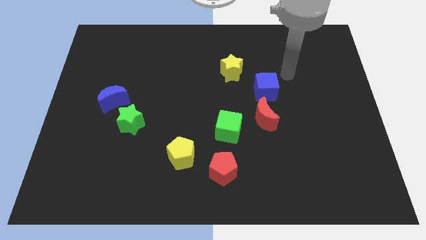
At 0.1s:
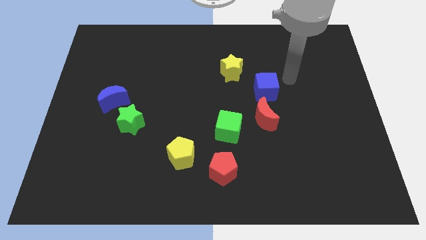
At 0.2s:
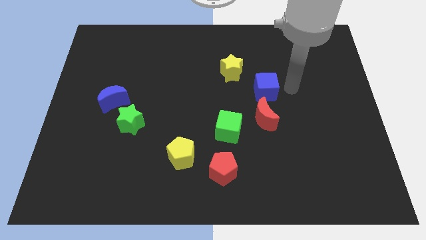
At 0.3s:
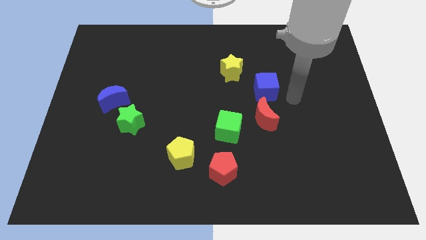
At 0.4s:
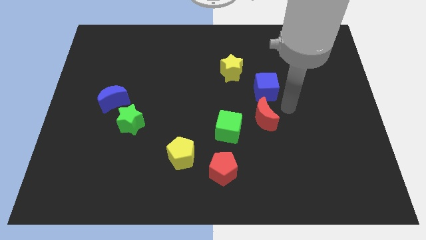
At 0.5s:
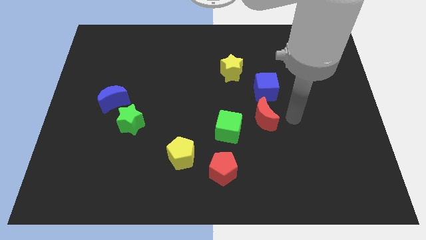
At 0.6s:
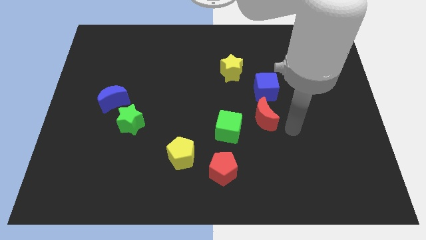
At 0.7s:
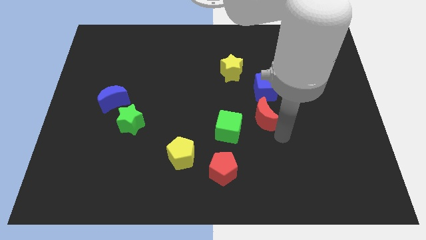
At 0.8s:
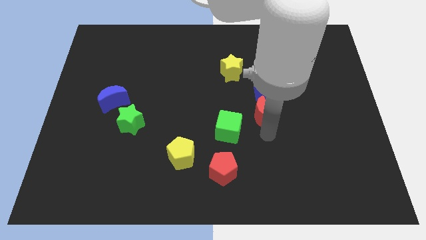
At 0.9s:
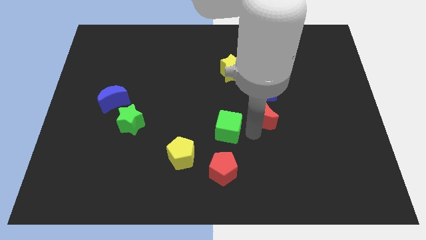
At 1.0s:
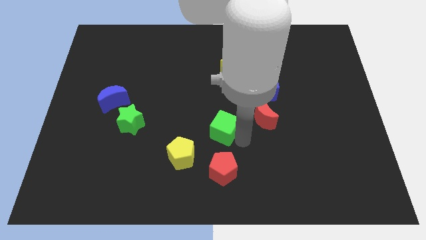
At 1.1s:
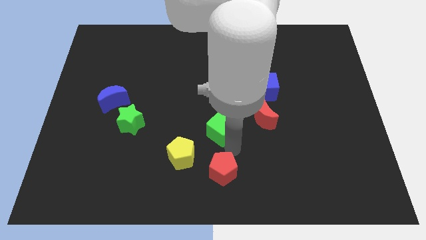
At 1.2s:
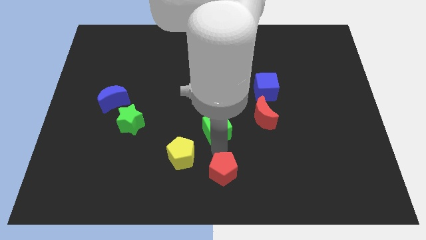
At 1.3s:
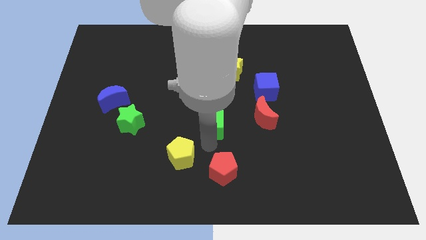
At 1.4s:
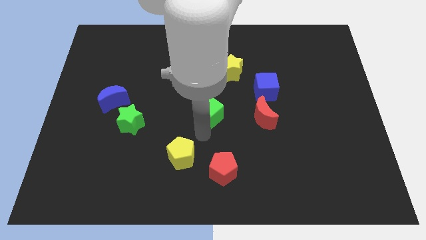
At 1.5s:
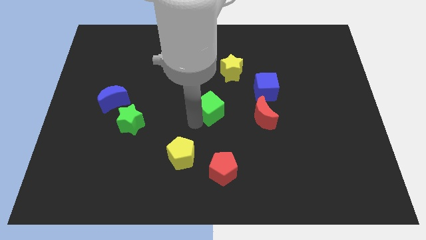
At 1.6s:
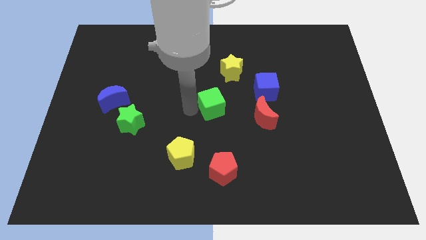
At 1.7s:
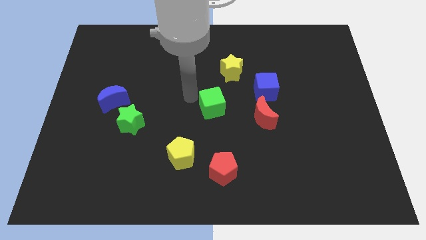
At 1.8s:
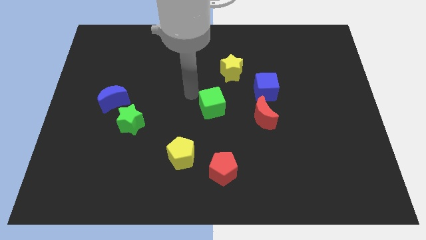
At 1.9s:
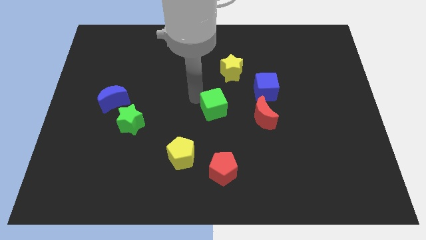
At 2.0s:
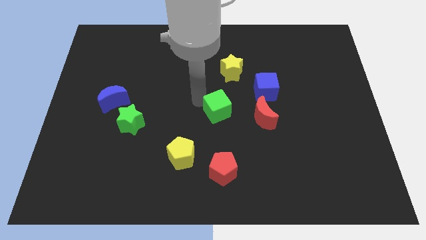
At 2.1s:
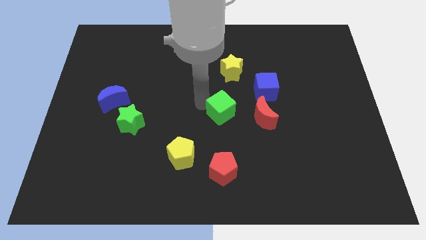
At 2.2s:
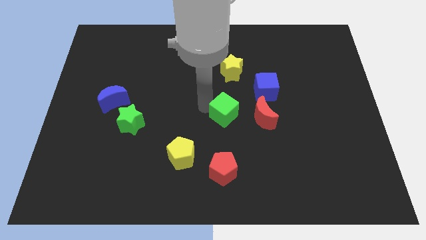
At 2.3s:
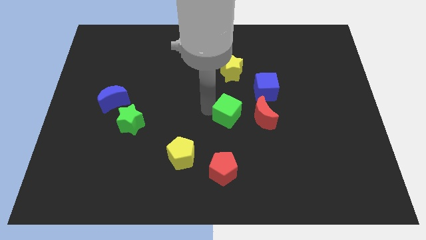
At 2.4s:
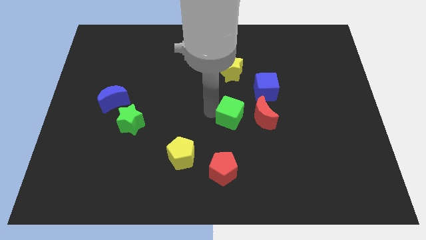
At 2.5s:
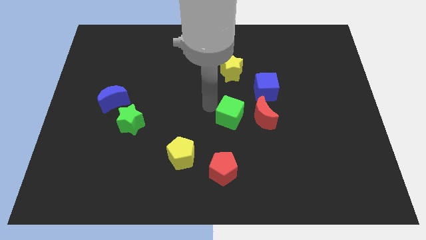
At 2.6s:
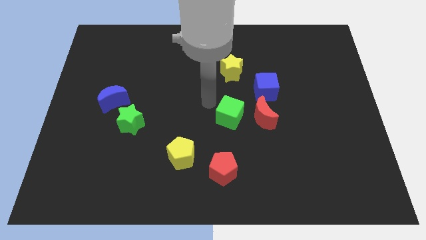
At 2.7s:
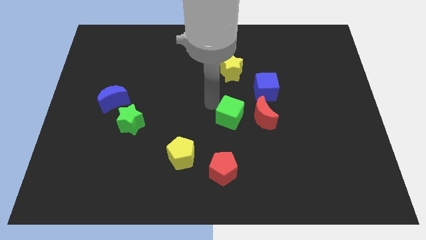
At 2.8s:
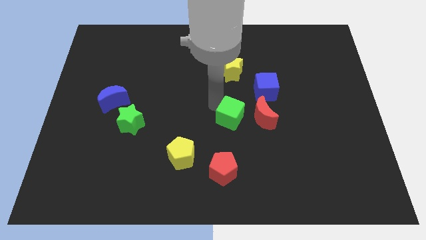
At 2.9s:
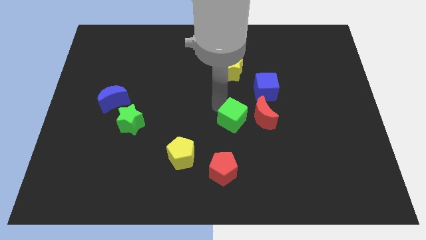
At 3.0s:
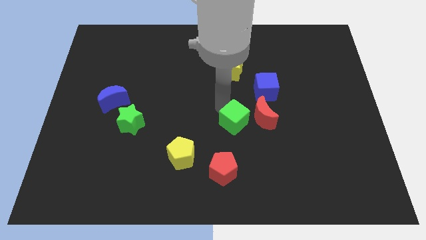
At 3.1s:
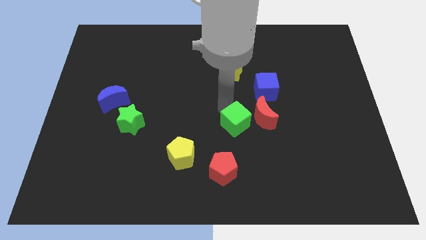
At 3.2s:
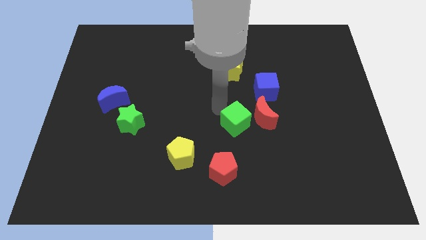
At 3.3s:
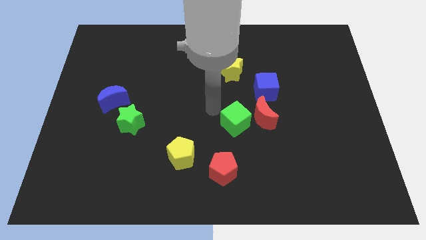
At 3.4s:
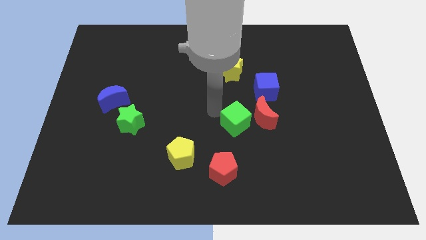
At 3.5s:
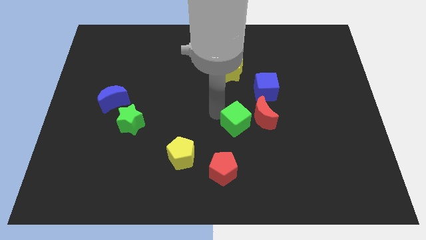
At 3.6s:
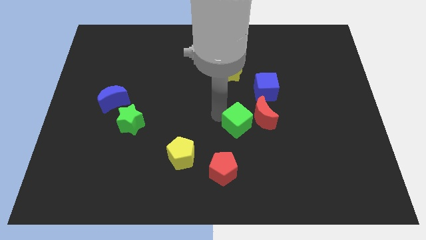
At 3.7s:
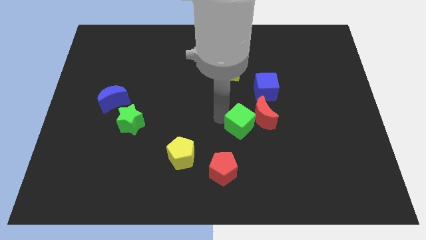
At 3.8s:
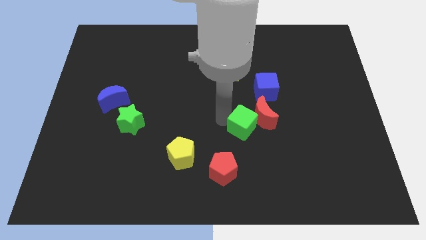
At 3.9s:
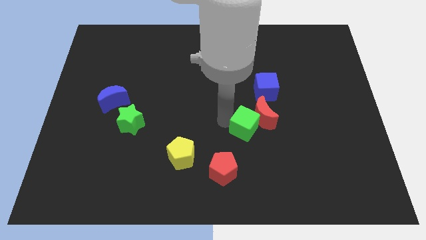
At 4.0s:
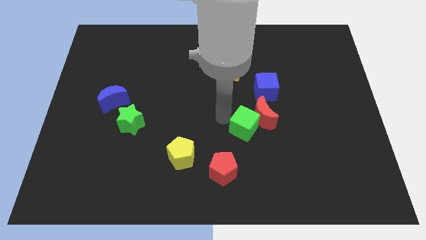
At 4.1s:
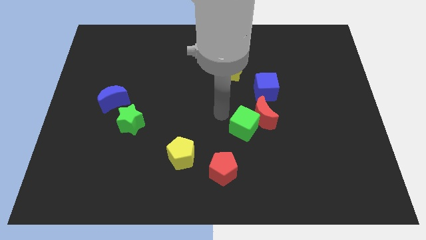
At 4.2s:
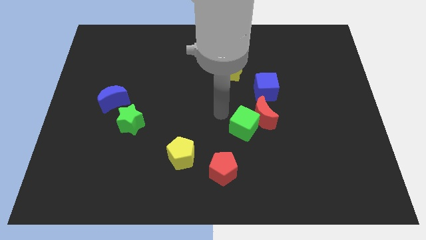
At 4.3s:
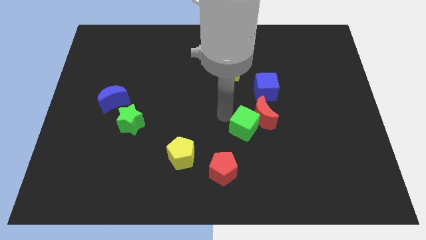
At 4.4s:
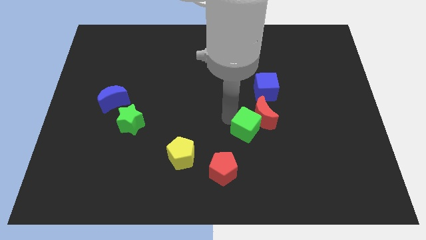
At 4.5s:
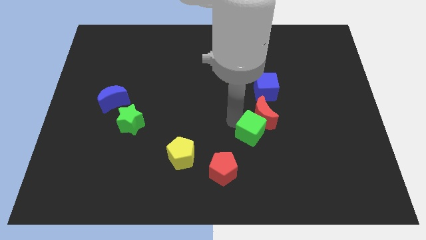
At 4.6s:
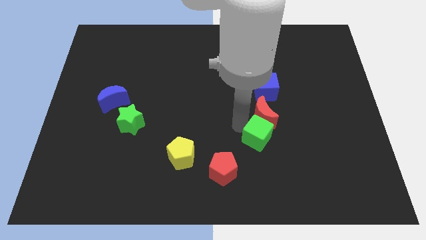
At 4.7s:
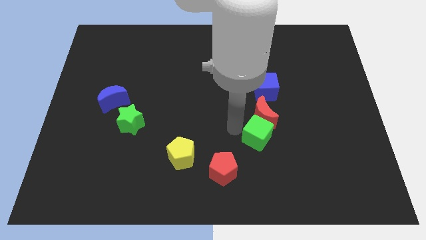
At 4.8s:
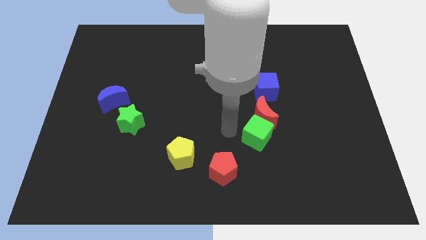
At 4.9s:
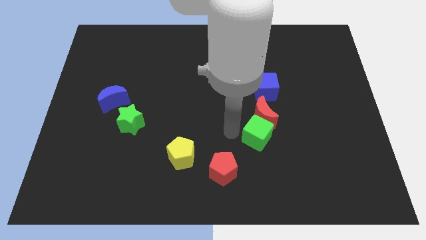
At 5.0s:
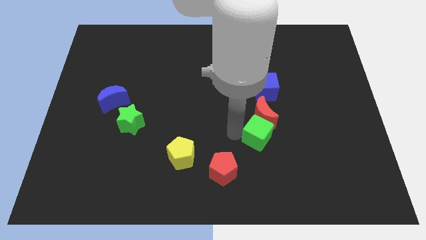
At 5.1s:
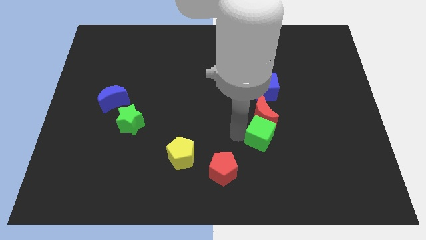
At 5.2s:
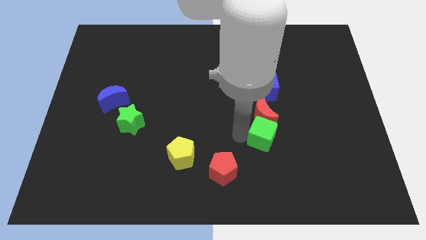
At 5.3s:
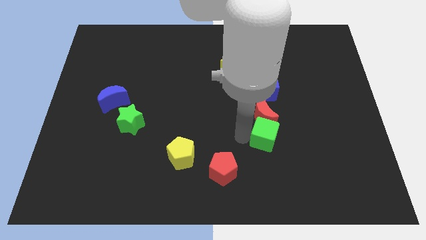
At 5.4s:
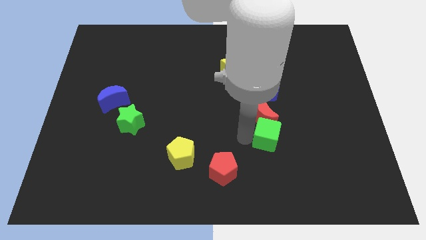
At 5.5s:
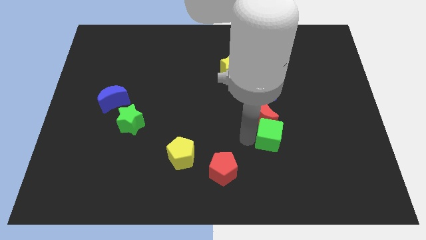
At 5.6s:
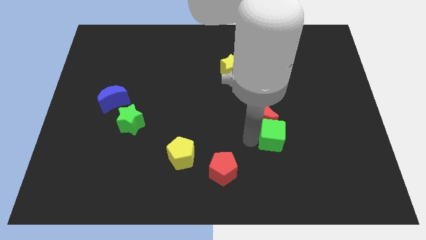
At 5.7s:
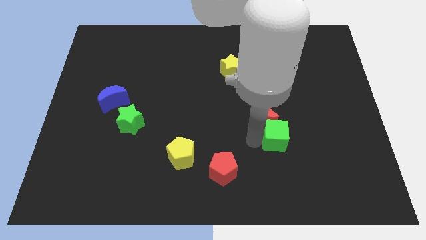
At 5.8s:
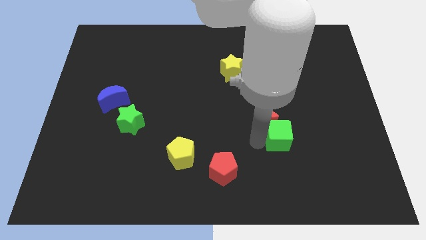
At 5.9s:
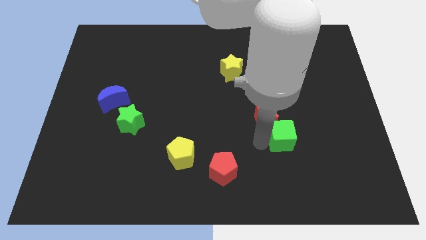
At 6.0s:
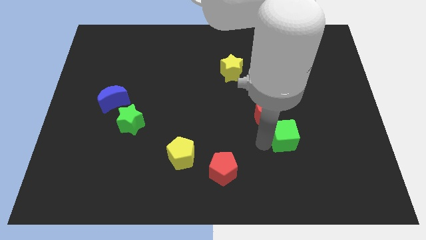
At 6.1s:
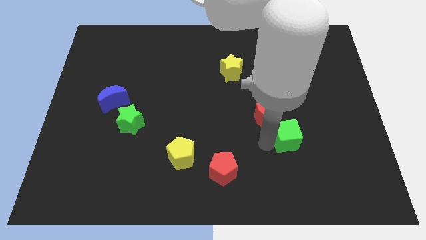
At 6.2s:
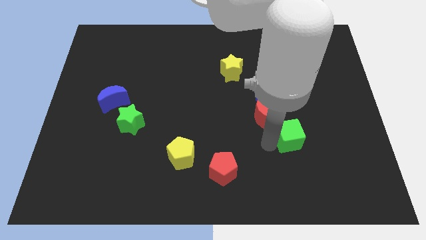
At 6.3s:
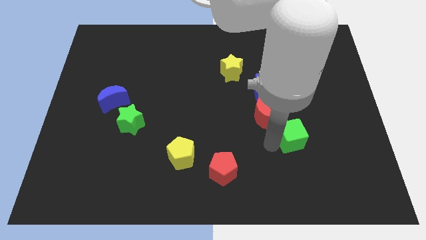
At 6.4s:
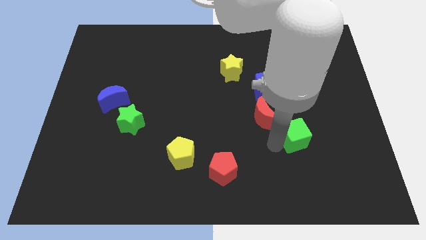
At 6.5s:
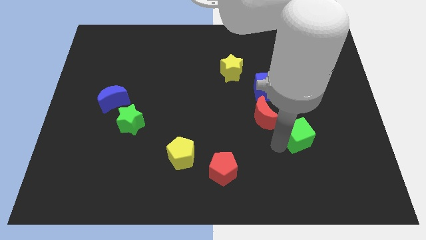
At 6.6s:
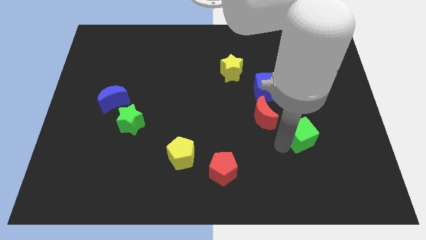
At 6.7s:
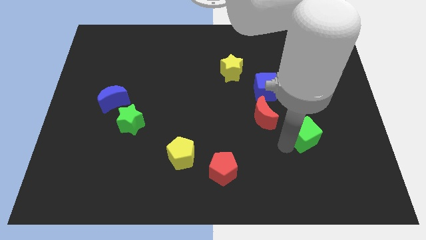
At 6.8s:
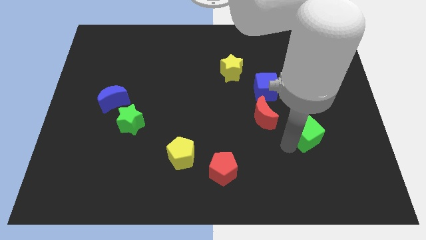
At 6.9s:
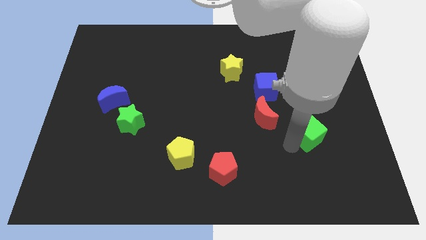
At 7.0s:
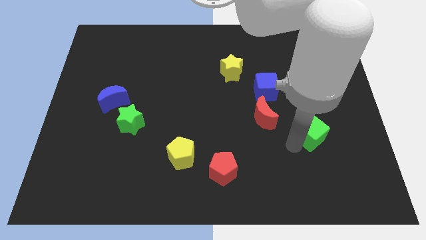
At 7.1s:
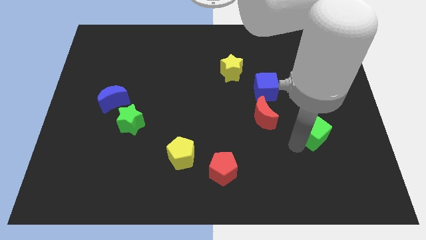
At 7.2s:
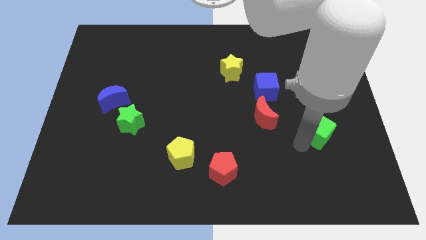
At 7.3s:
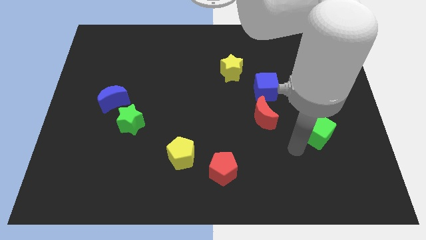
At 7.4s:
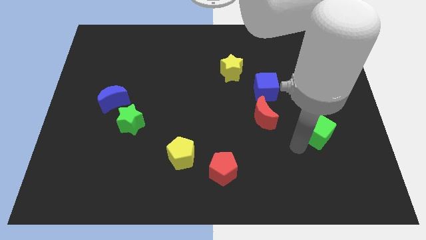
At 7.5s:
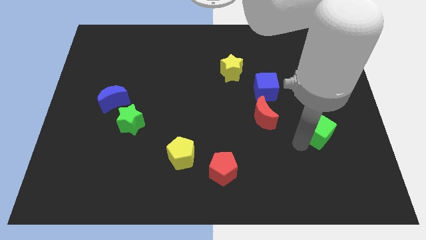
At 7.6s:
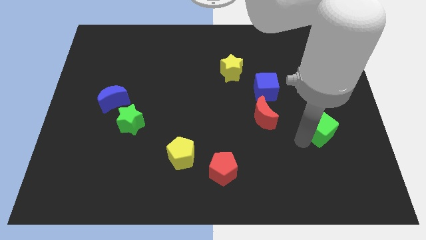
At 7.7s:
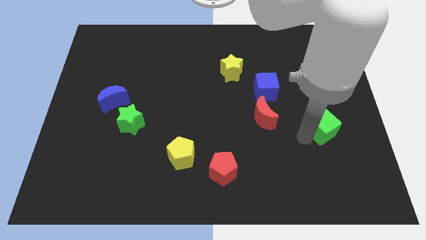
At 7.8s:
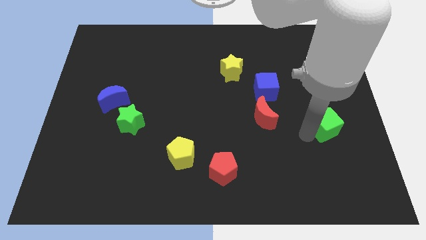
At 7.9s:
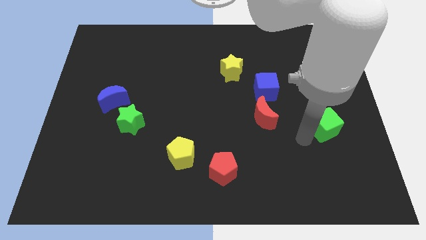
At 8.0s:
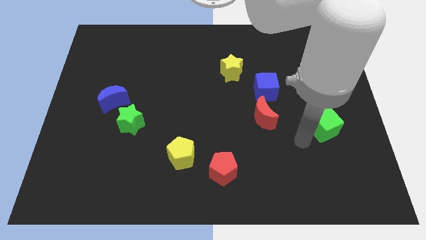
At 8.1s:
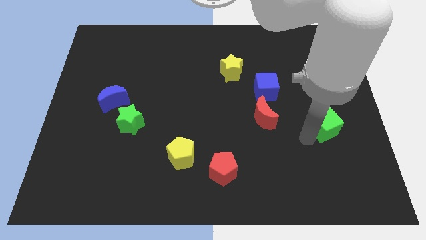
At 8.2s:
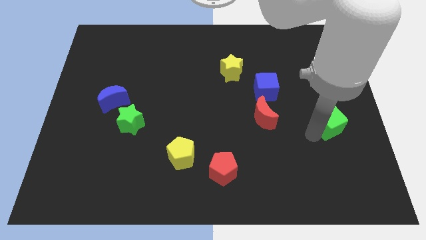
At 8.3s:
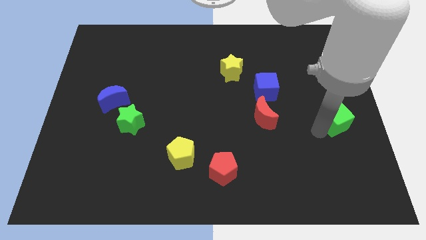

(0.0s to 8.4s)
put the green cube to the center right
